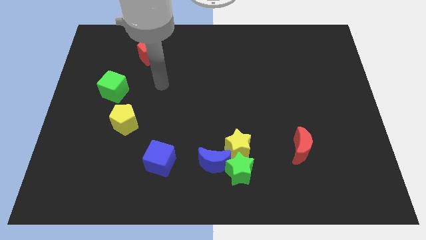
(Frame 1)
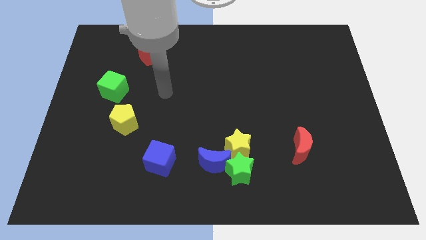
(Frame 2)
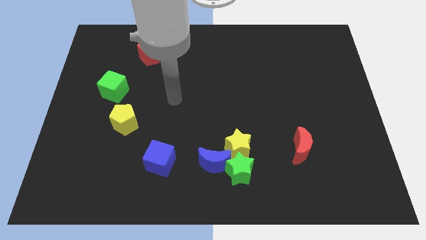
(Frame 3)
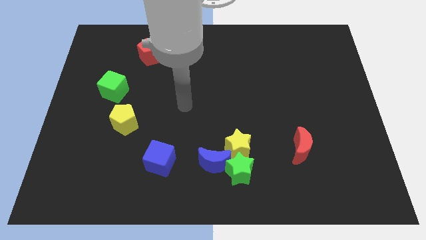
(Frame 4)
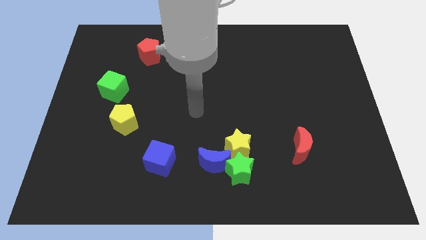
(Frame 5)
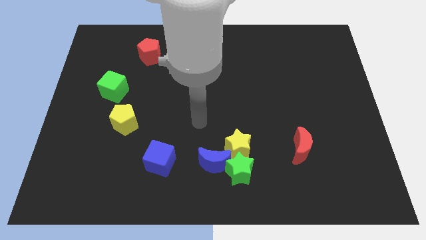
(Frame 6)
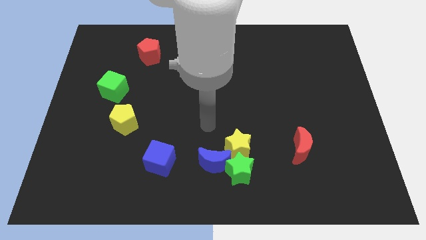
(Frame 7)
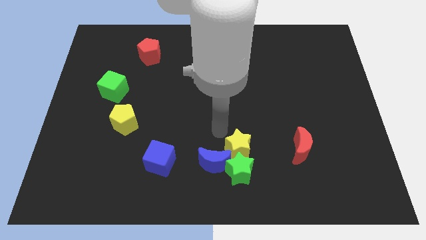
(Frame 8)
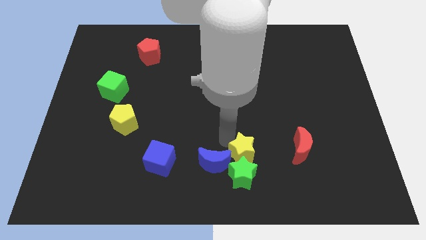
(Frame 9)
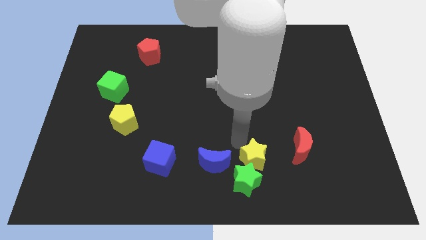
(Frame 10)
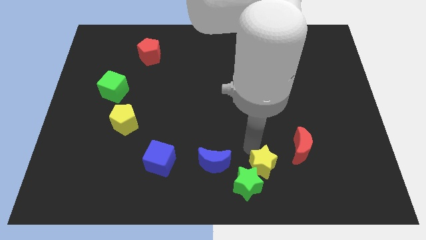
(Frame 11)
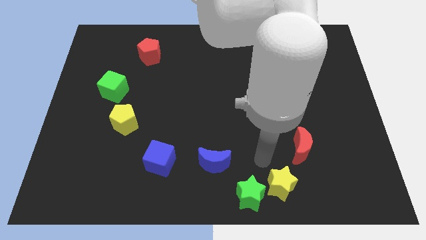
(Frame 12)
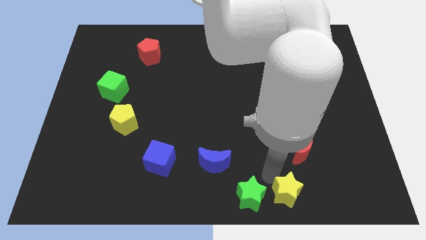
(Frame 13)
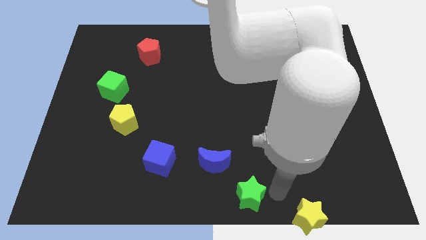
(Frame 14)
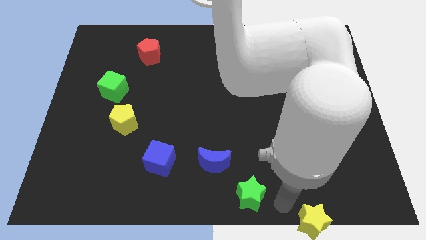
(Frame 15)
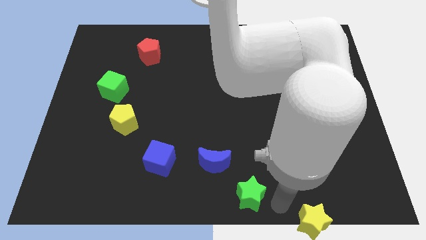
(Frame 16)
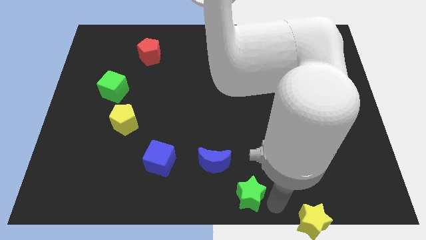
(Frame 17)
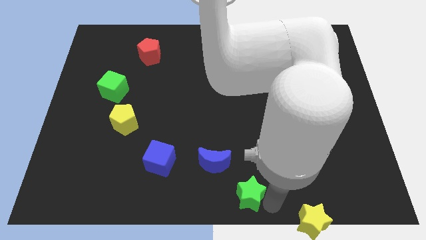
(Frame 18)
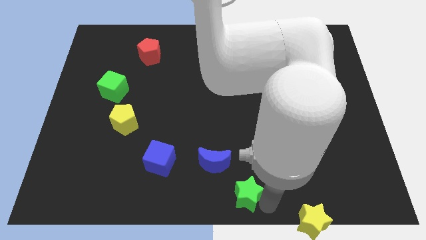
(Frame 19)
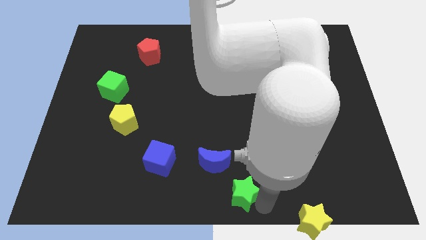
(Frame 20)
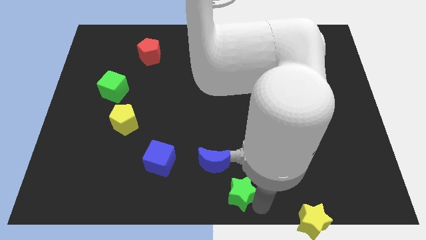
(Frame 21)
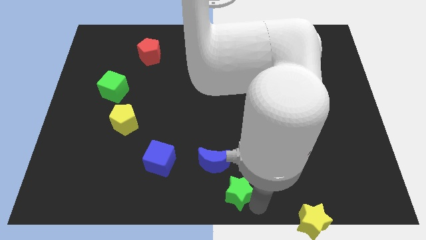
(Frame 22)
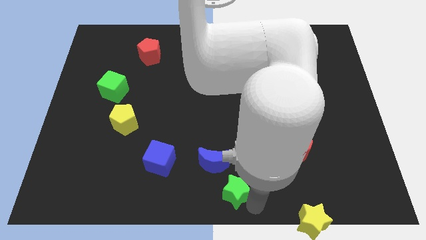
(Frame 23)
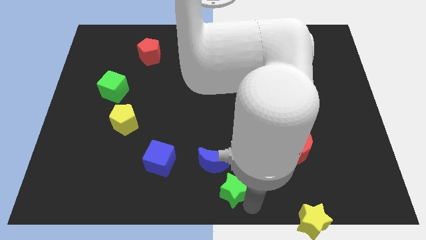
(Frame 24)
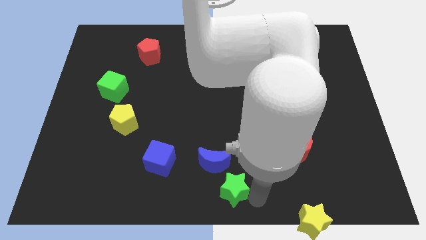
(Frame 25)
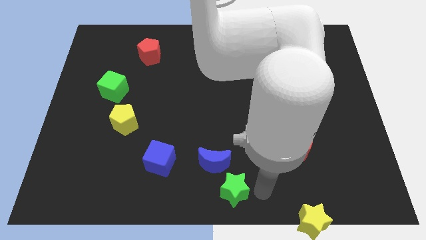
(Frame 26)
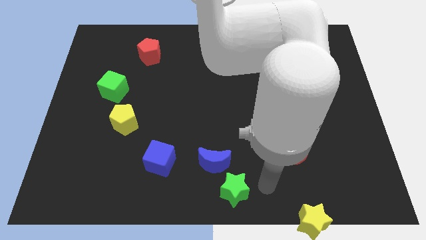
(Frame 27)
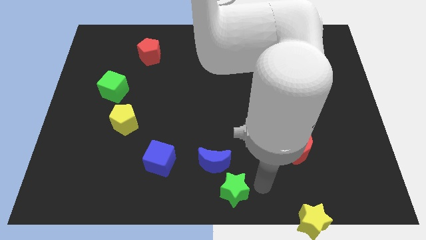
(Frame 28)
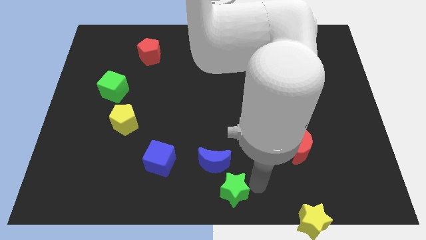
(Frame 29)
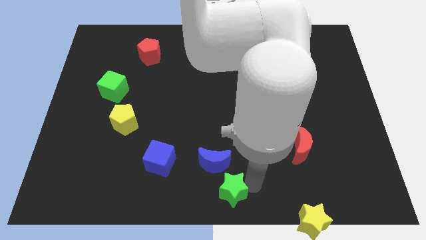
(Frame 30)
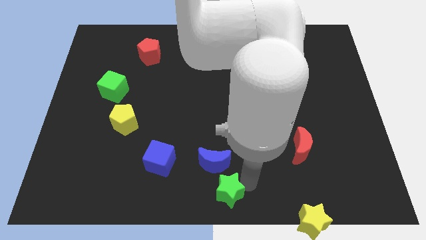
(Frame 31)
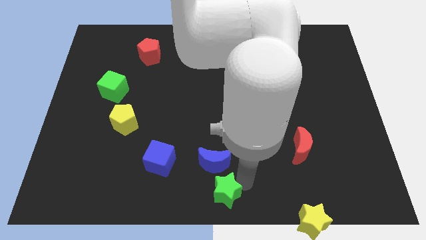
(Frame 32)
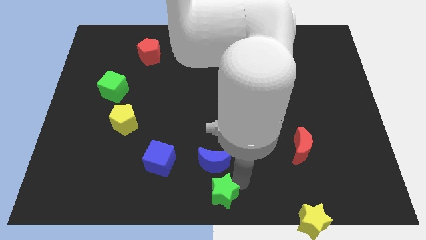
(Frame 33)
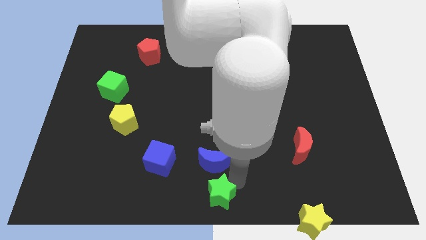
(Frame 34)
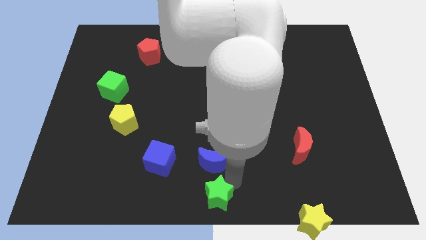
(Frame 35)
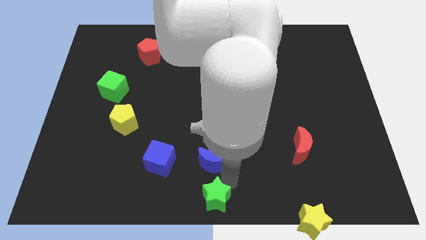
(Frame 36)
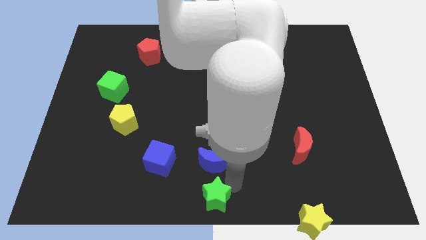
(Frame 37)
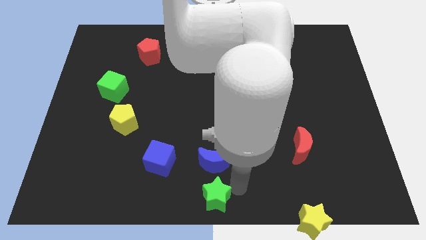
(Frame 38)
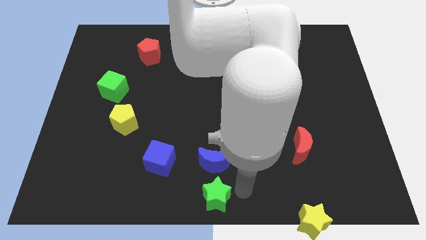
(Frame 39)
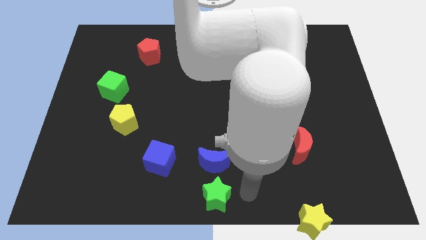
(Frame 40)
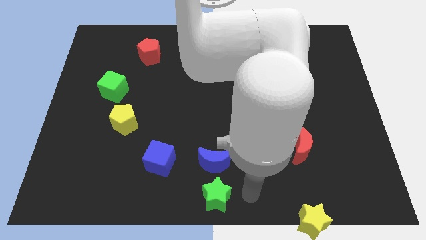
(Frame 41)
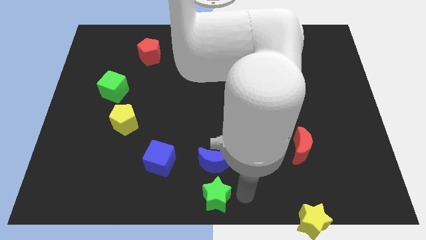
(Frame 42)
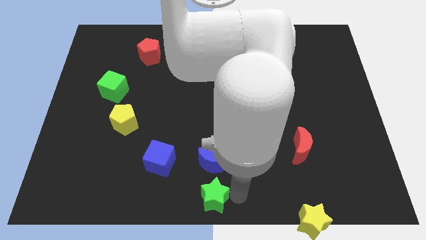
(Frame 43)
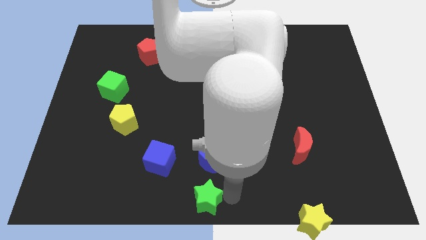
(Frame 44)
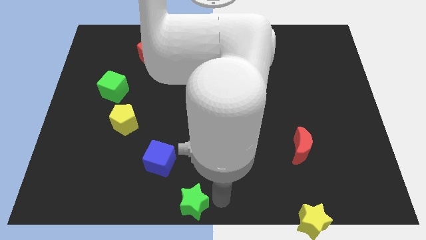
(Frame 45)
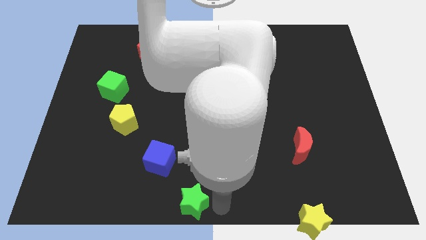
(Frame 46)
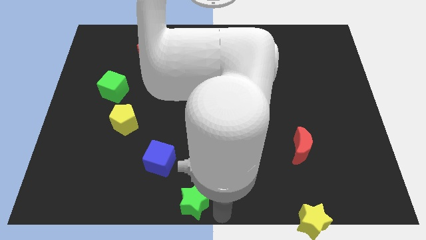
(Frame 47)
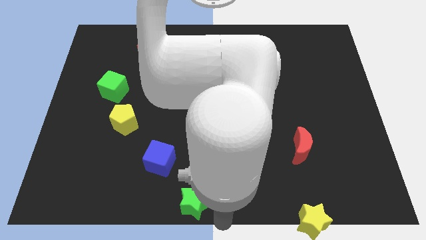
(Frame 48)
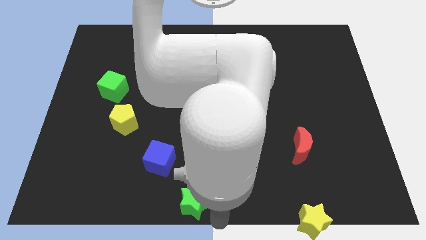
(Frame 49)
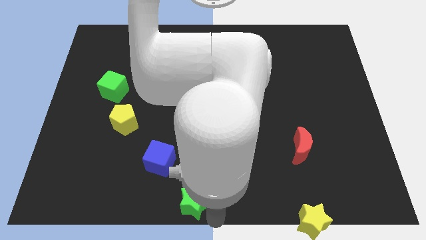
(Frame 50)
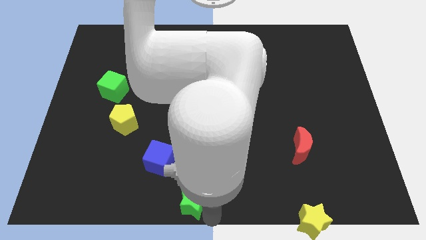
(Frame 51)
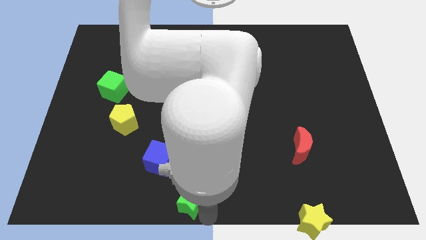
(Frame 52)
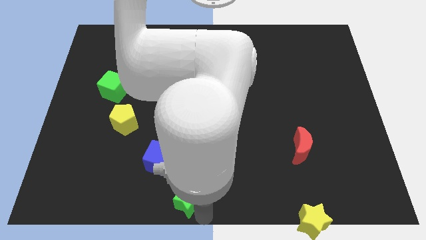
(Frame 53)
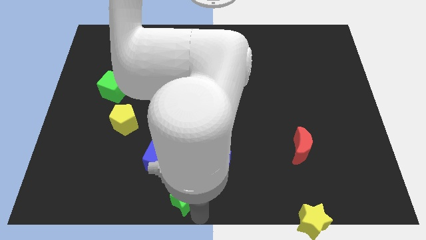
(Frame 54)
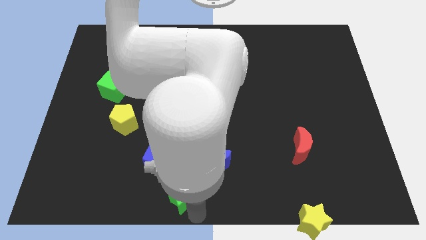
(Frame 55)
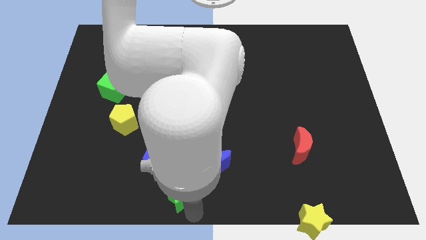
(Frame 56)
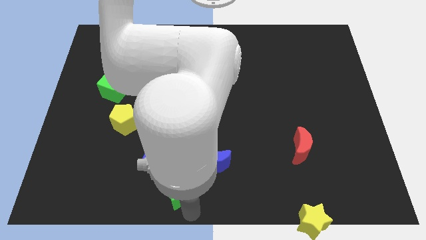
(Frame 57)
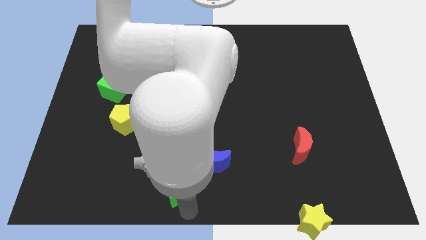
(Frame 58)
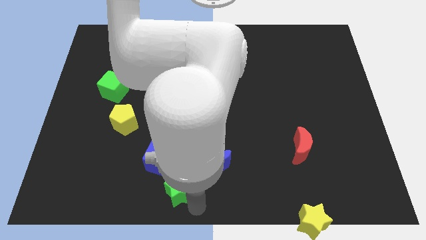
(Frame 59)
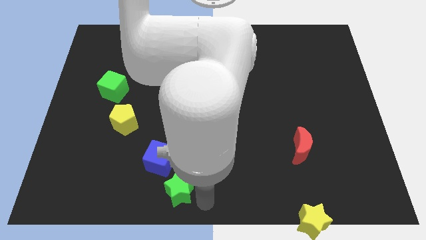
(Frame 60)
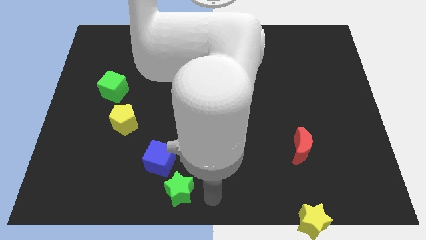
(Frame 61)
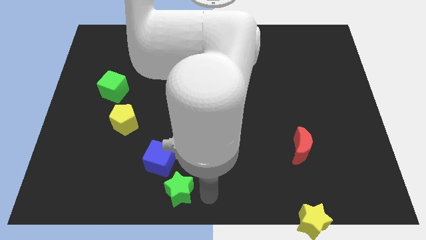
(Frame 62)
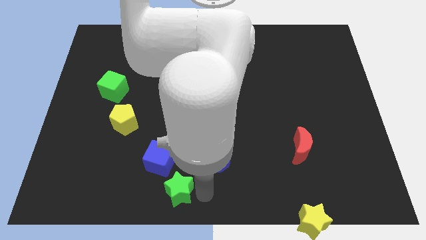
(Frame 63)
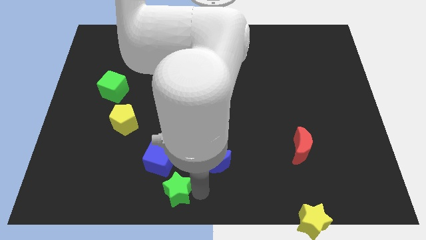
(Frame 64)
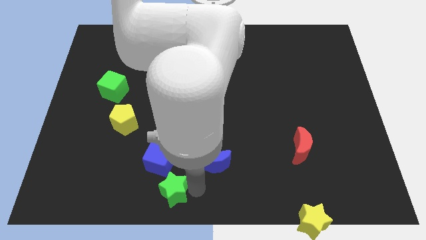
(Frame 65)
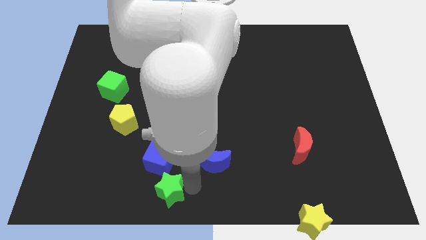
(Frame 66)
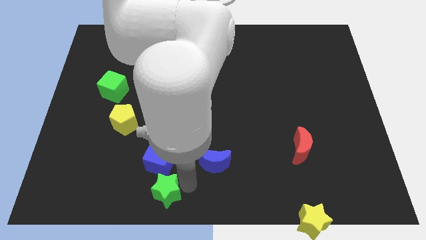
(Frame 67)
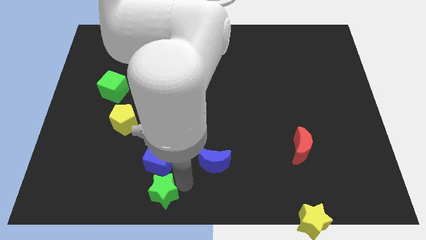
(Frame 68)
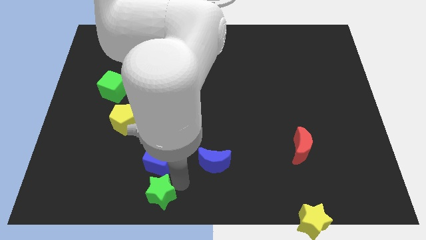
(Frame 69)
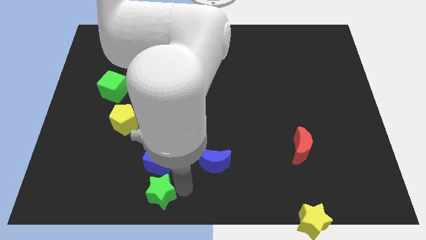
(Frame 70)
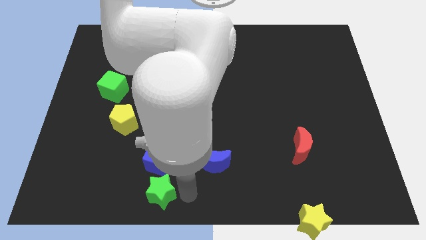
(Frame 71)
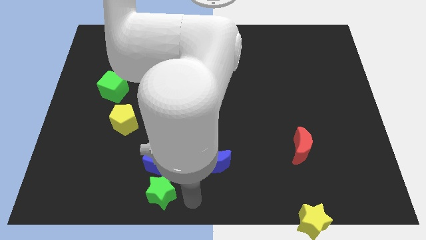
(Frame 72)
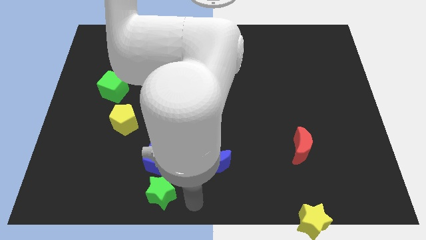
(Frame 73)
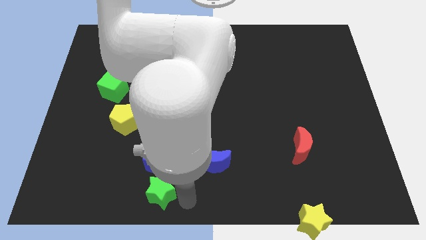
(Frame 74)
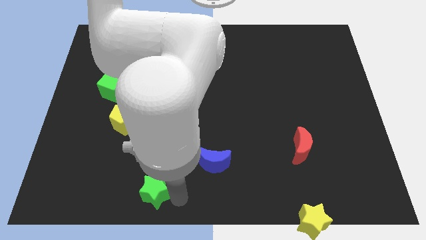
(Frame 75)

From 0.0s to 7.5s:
push the green star to the bottom left side of the blue cube

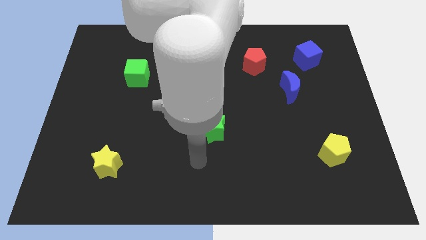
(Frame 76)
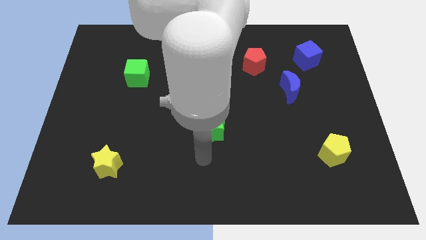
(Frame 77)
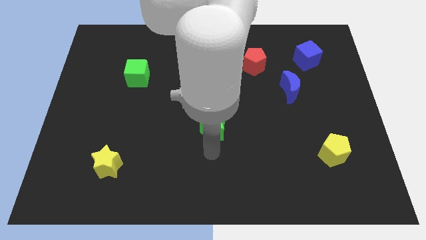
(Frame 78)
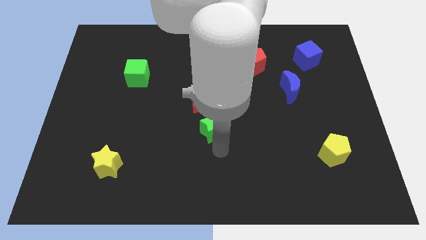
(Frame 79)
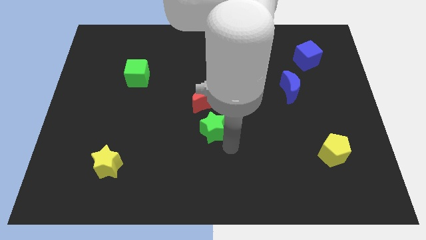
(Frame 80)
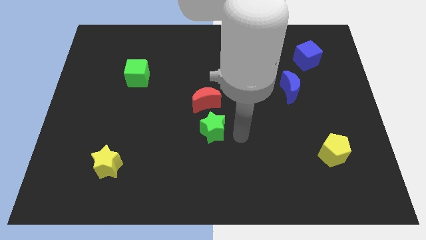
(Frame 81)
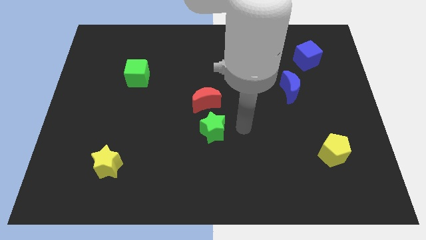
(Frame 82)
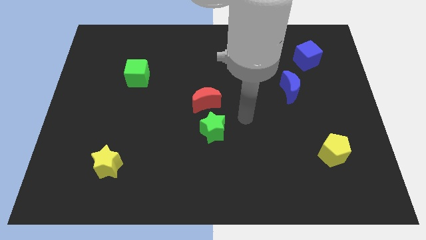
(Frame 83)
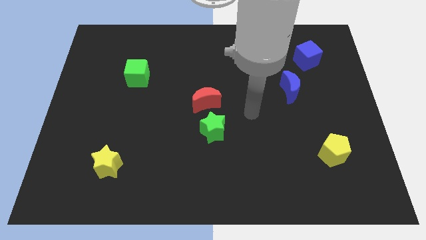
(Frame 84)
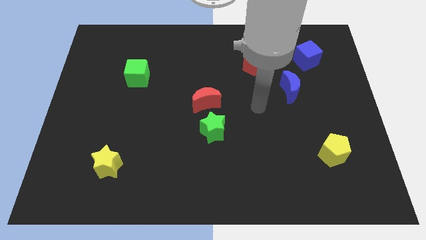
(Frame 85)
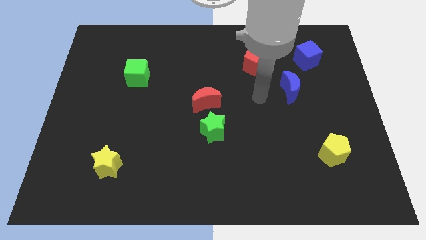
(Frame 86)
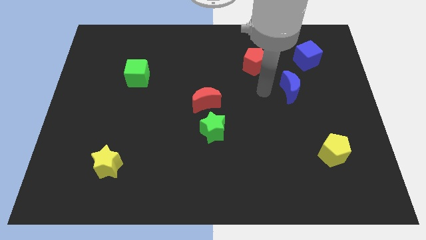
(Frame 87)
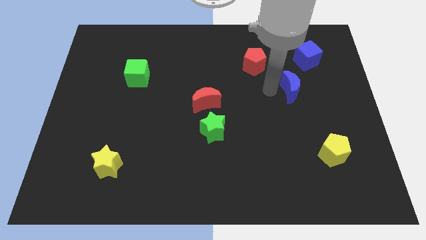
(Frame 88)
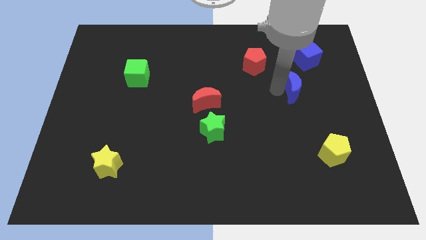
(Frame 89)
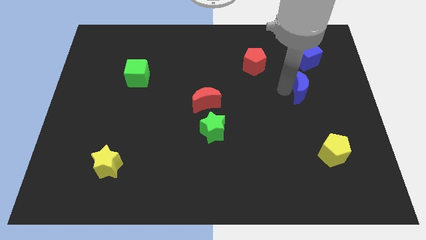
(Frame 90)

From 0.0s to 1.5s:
push the blue moon to the bottom of the blue cube
